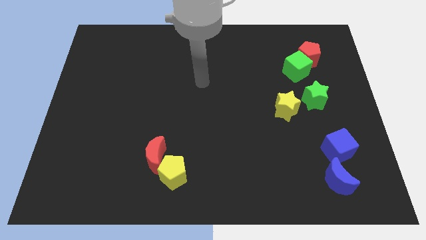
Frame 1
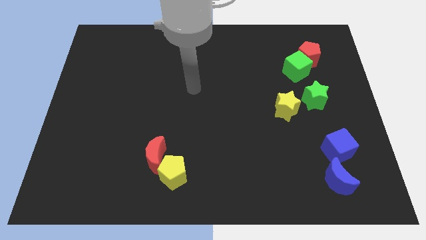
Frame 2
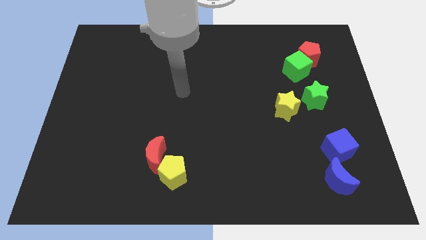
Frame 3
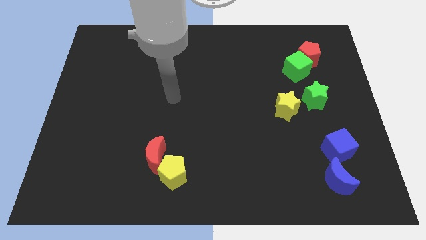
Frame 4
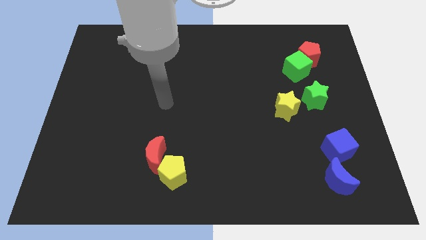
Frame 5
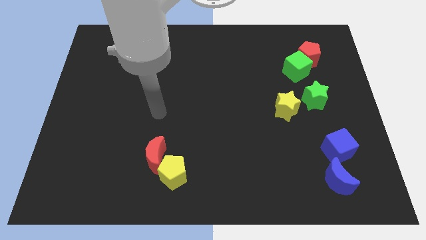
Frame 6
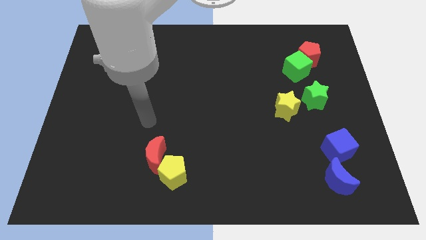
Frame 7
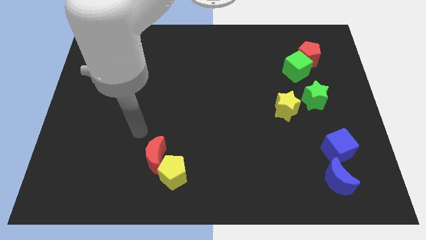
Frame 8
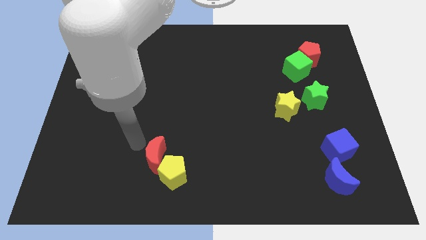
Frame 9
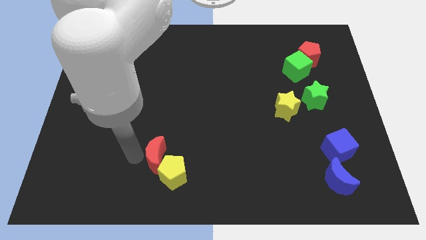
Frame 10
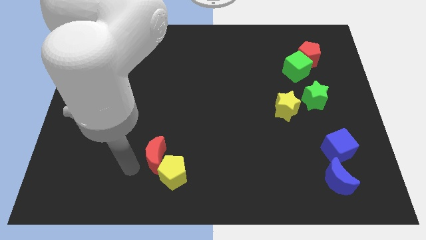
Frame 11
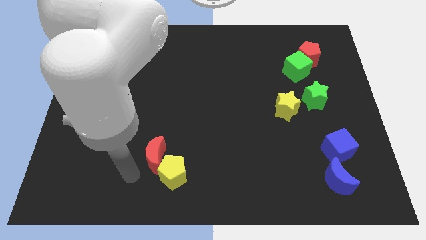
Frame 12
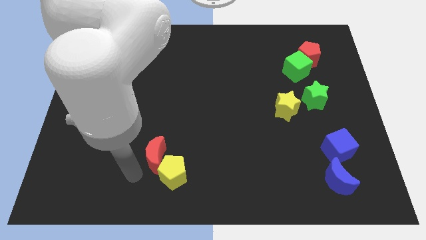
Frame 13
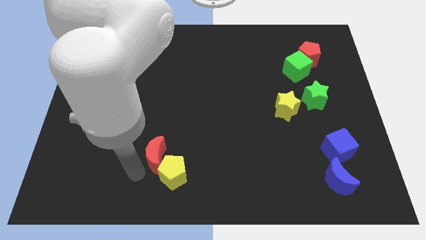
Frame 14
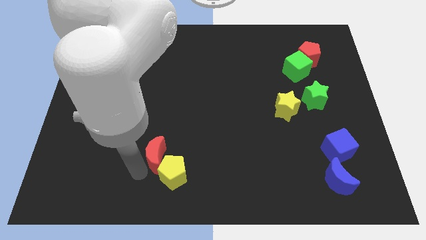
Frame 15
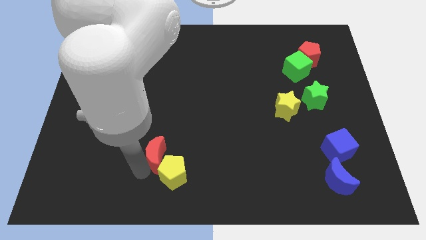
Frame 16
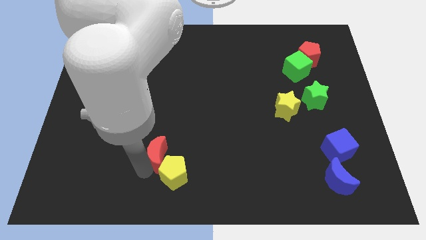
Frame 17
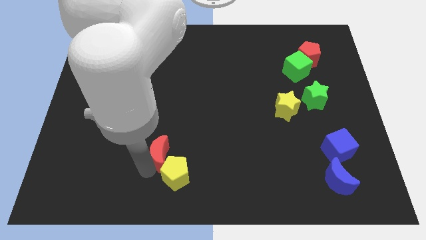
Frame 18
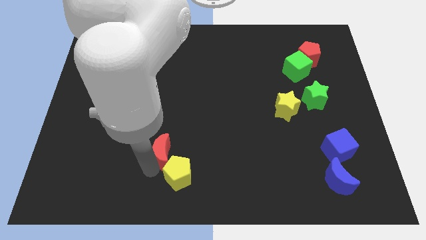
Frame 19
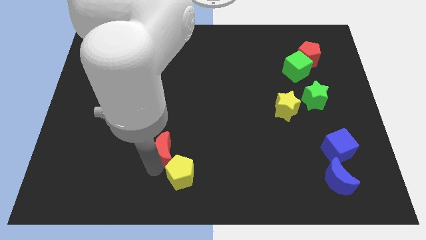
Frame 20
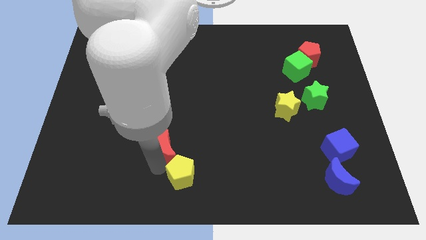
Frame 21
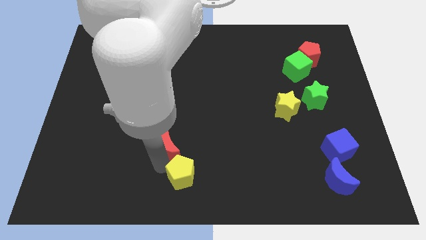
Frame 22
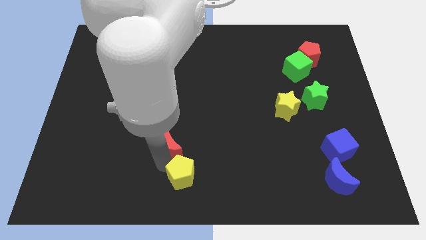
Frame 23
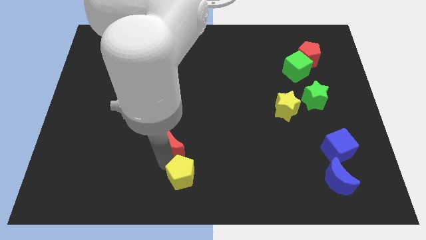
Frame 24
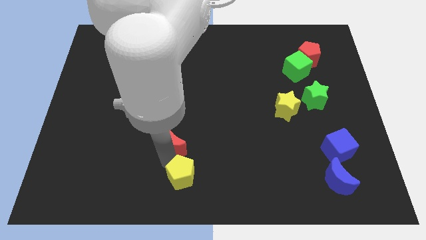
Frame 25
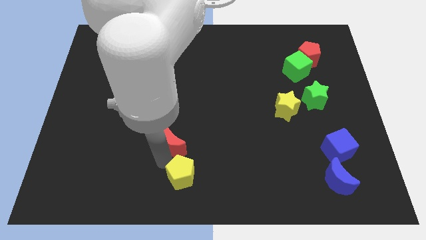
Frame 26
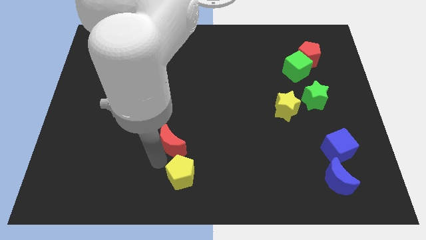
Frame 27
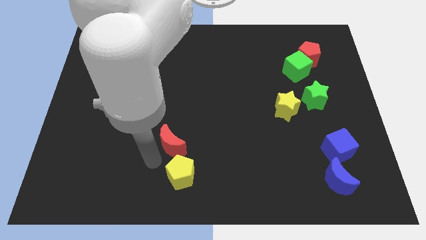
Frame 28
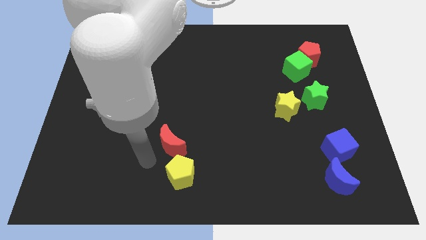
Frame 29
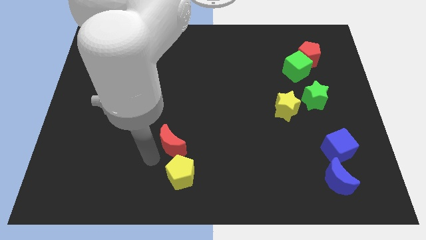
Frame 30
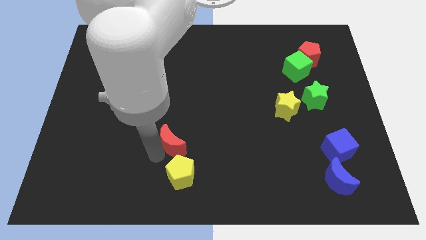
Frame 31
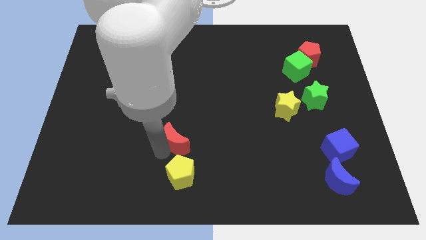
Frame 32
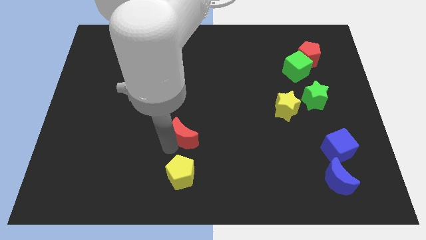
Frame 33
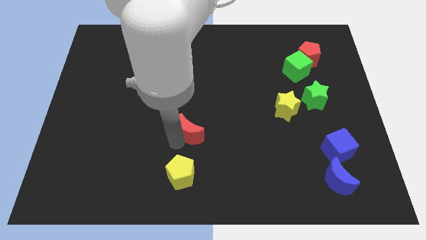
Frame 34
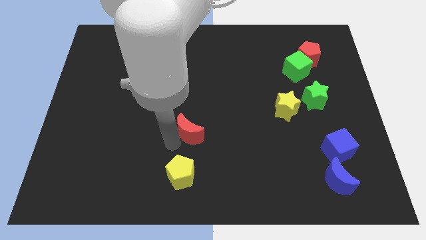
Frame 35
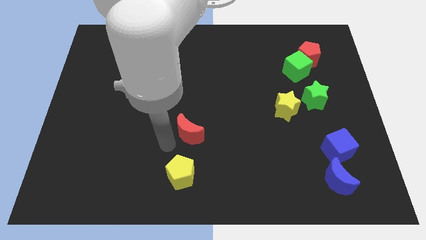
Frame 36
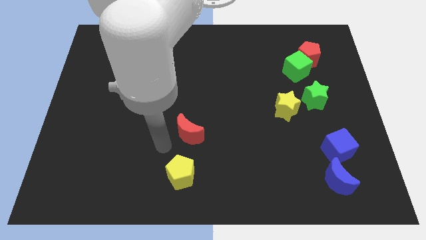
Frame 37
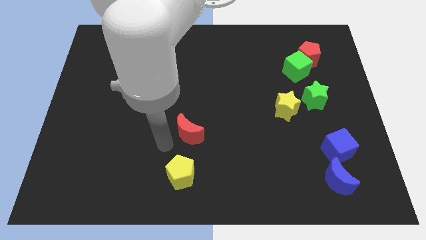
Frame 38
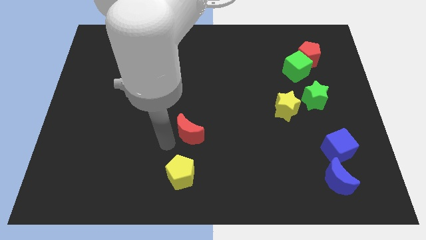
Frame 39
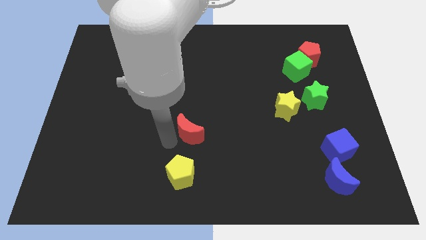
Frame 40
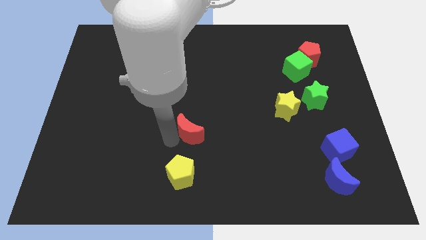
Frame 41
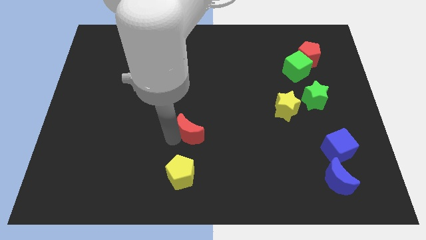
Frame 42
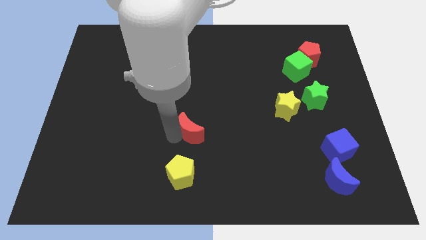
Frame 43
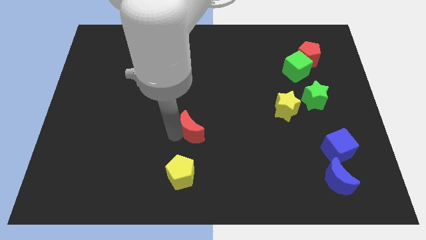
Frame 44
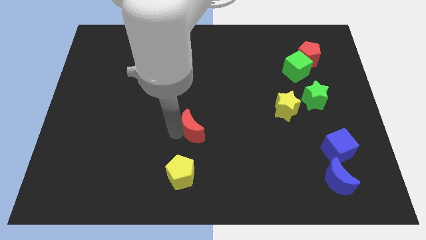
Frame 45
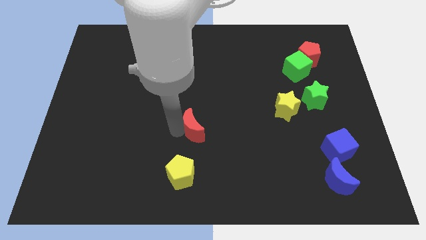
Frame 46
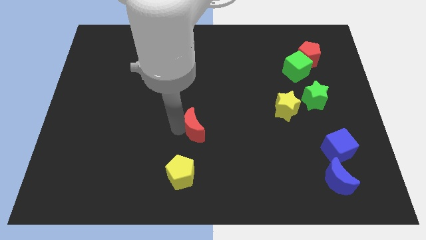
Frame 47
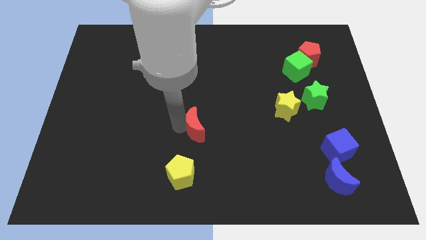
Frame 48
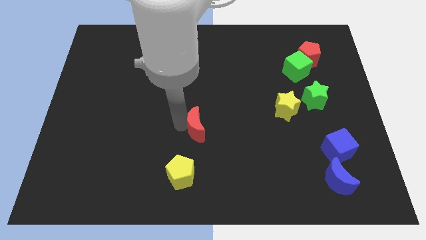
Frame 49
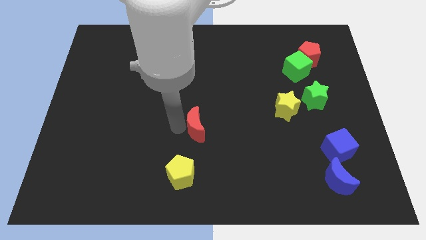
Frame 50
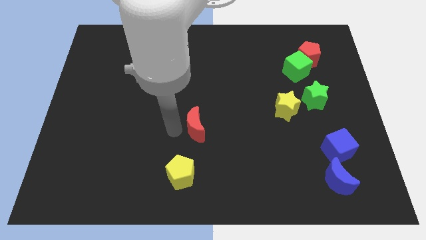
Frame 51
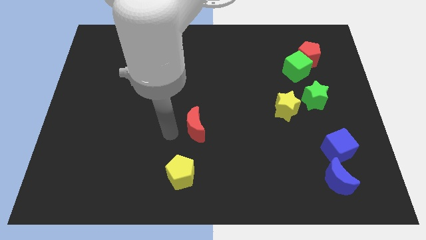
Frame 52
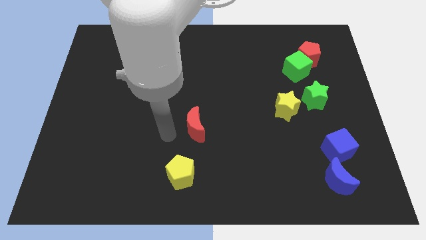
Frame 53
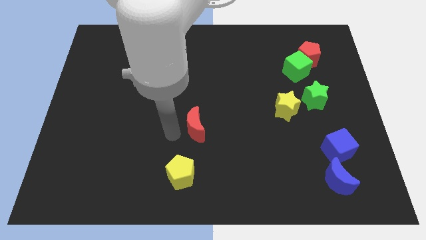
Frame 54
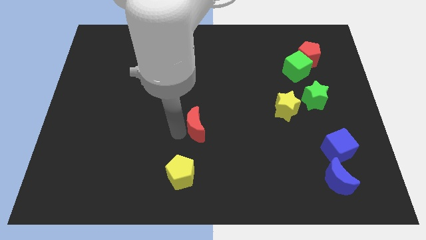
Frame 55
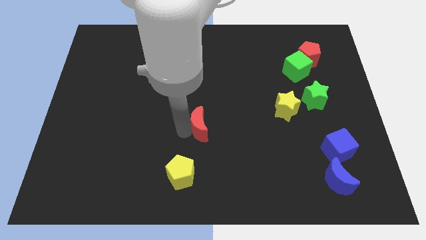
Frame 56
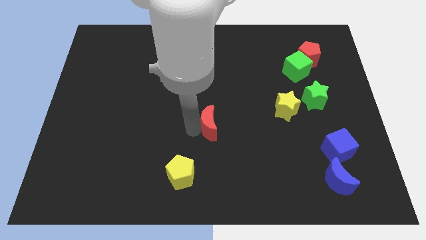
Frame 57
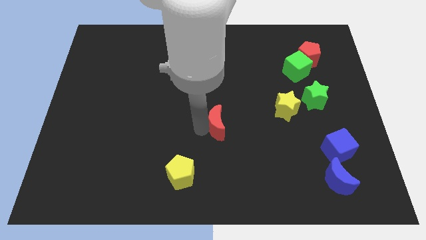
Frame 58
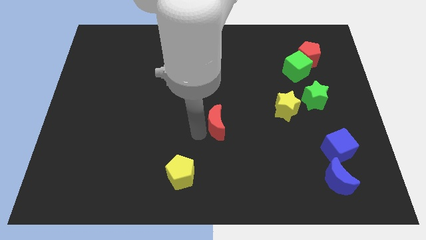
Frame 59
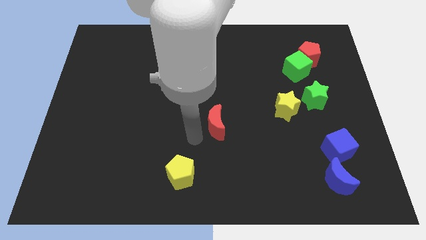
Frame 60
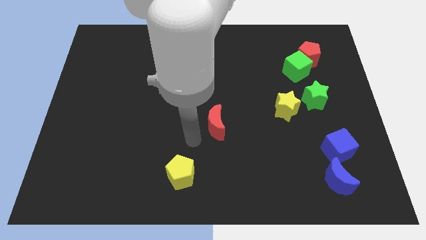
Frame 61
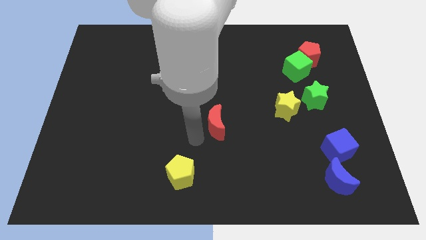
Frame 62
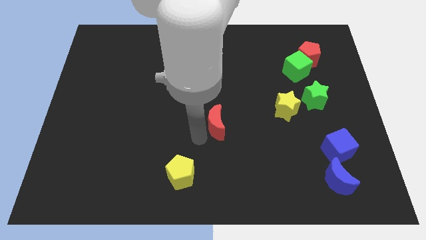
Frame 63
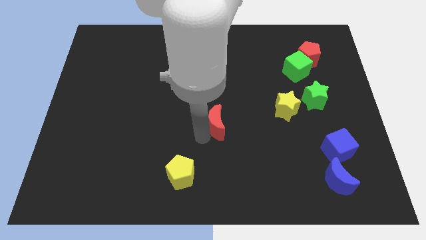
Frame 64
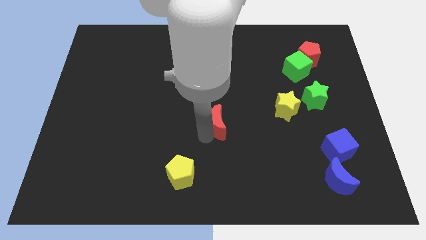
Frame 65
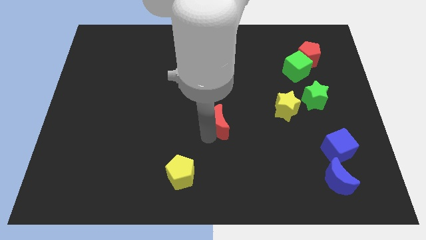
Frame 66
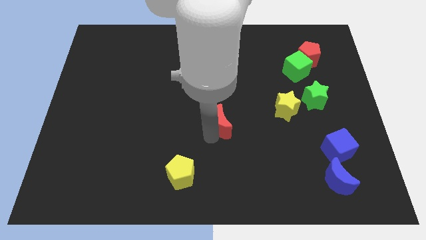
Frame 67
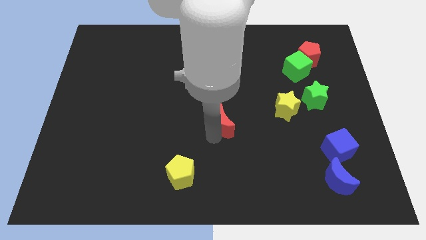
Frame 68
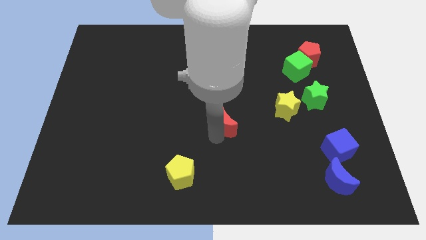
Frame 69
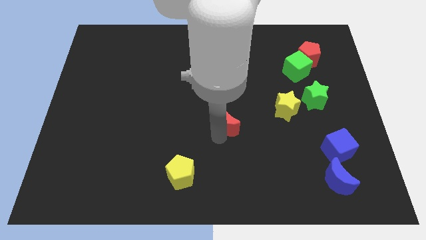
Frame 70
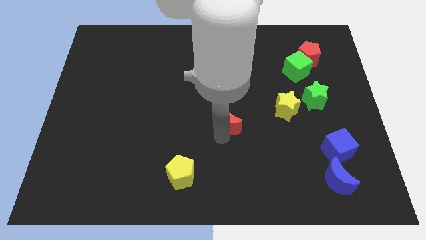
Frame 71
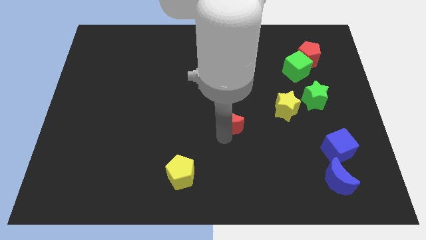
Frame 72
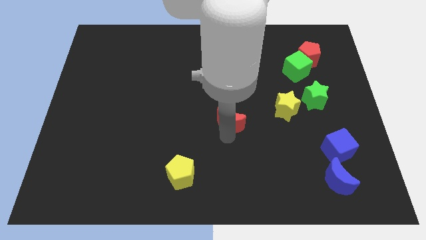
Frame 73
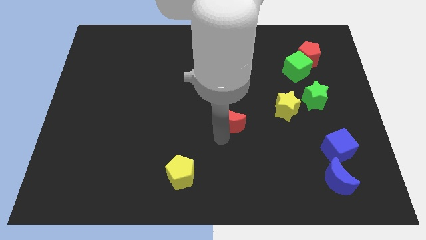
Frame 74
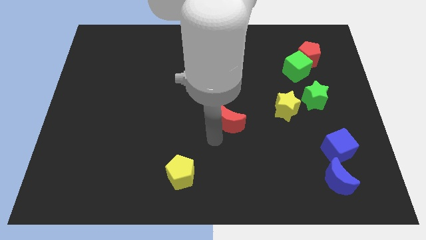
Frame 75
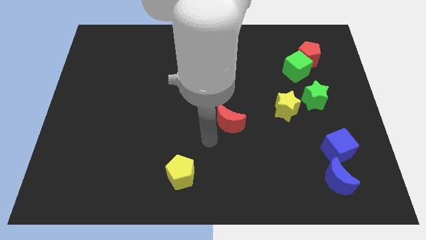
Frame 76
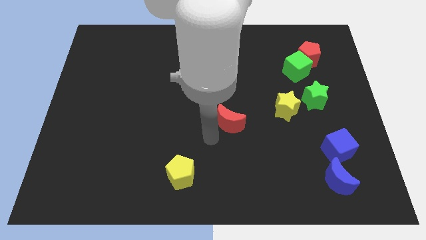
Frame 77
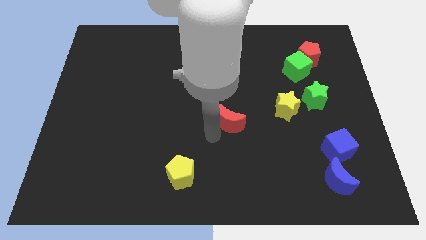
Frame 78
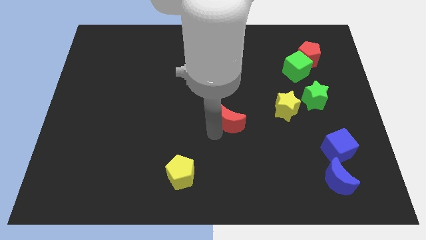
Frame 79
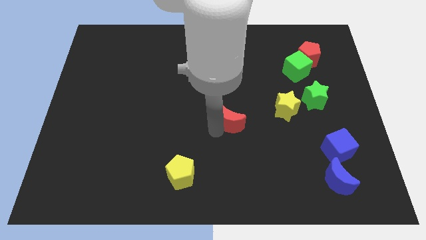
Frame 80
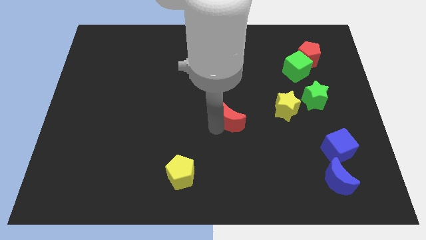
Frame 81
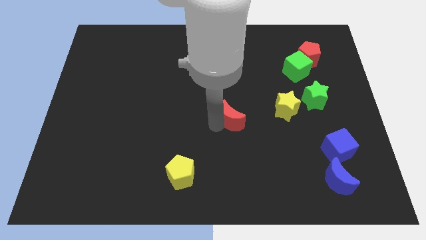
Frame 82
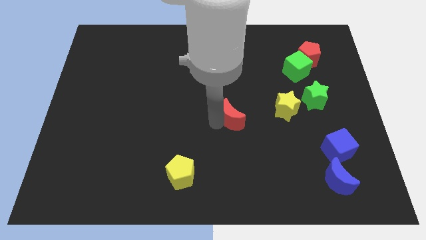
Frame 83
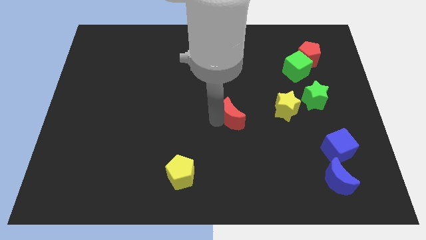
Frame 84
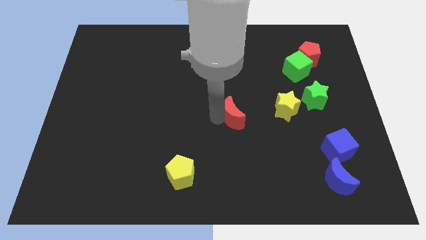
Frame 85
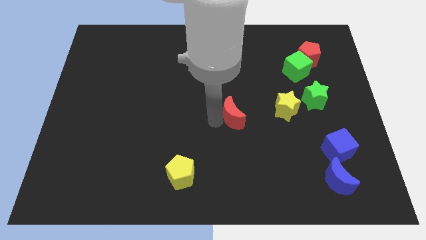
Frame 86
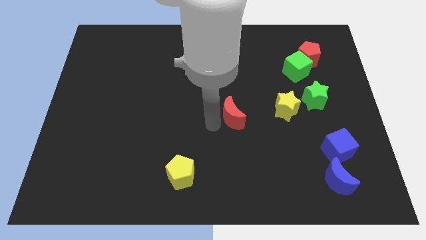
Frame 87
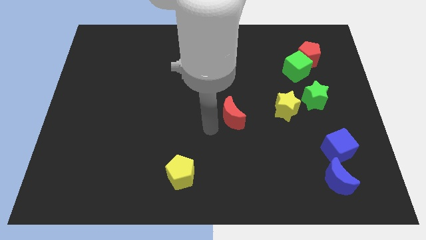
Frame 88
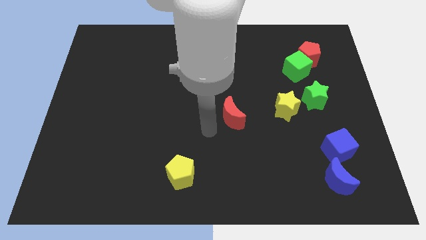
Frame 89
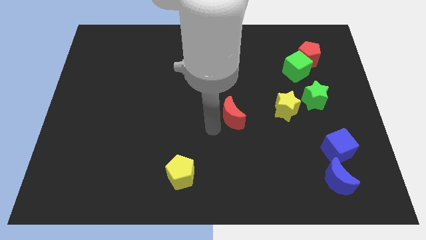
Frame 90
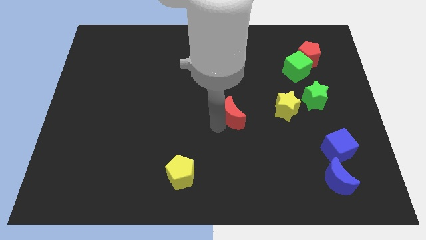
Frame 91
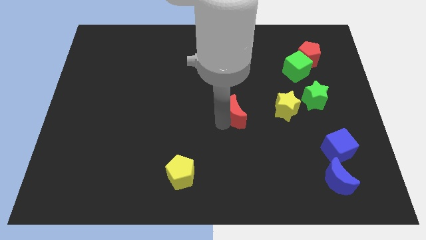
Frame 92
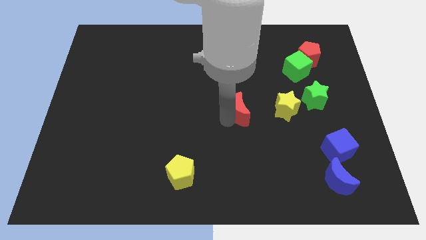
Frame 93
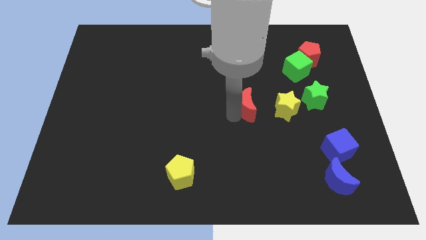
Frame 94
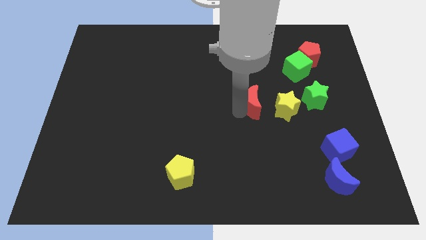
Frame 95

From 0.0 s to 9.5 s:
slide the red moon to the left of the green star
